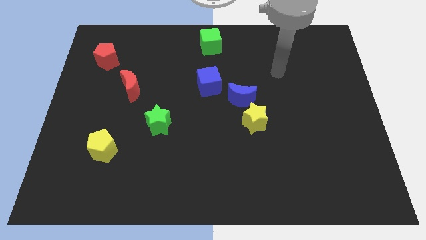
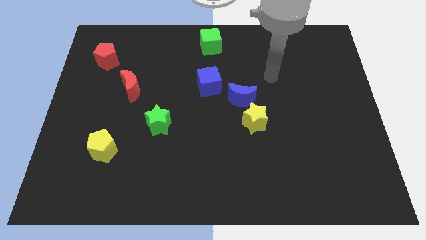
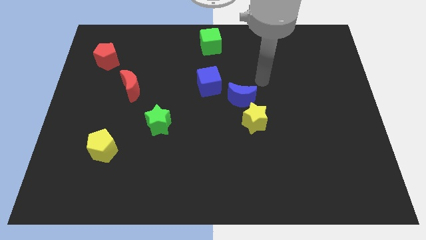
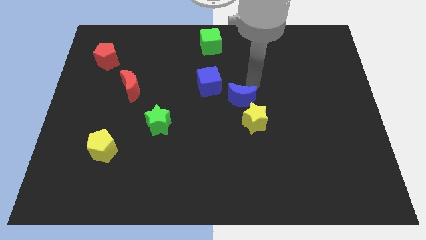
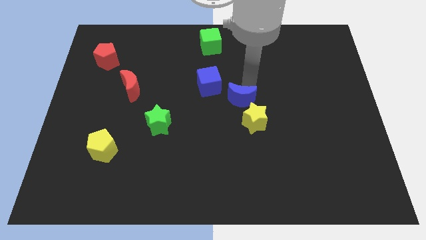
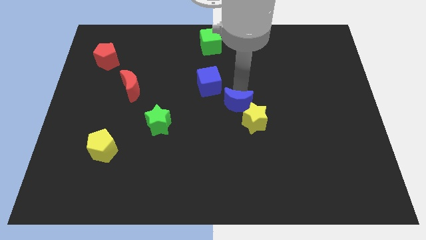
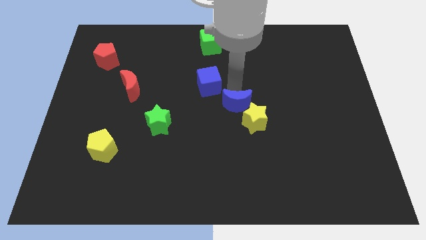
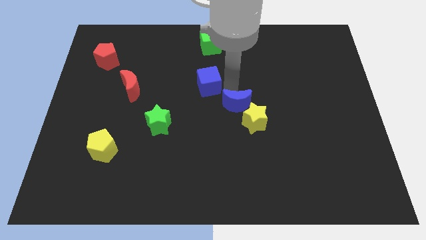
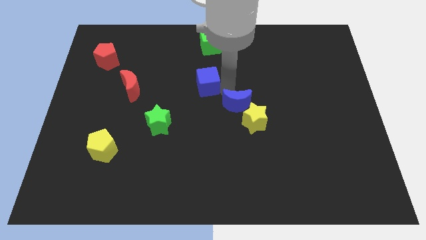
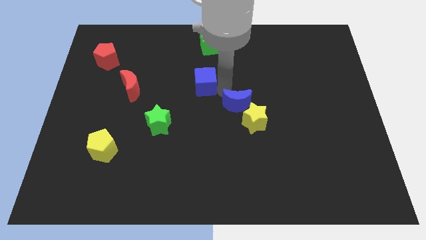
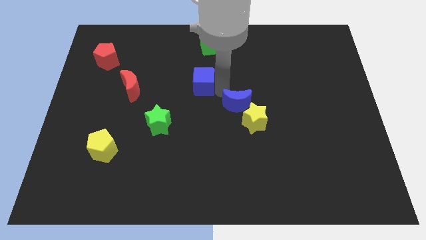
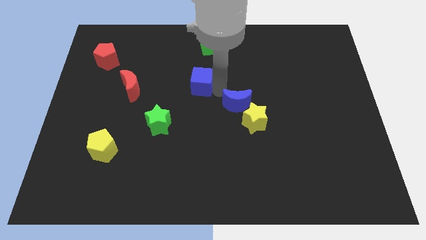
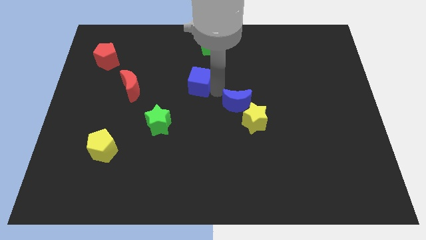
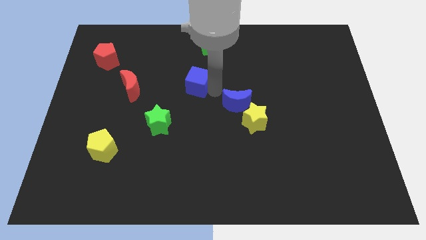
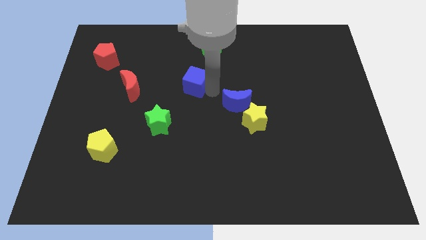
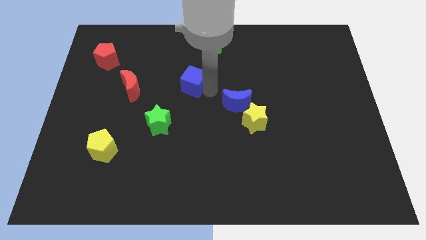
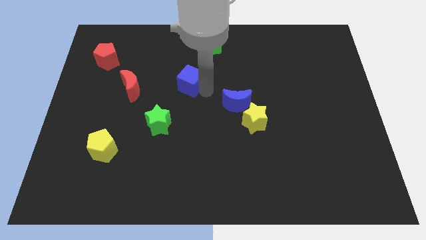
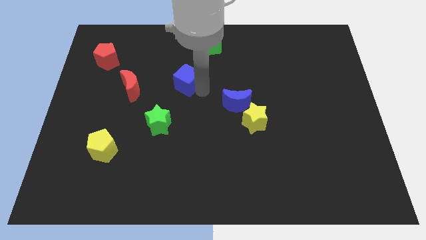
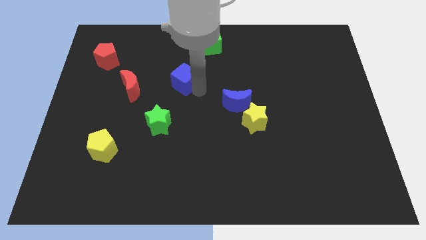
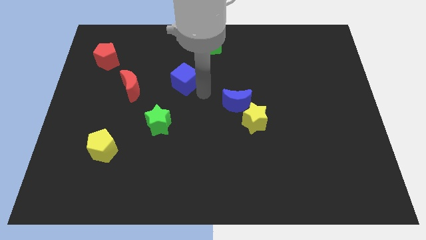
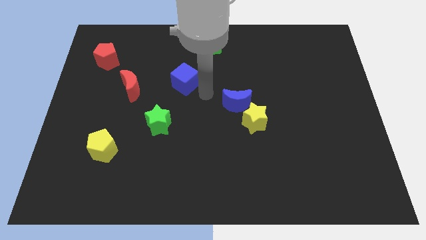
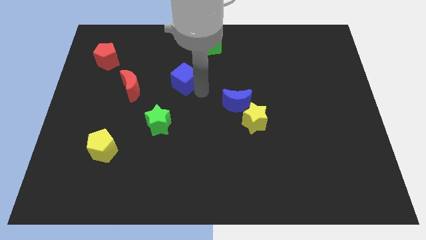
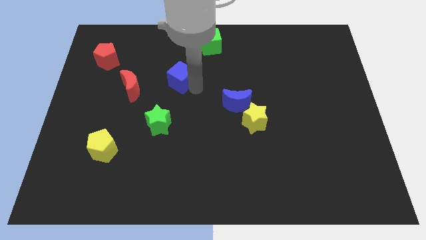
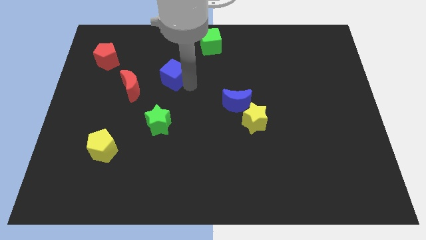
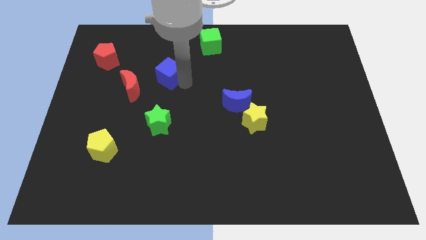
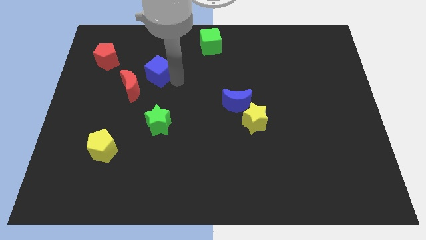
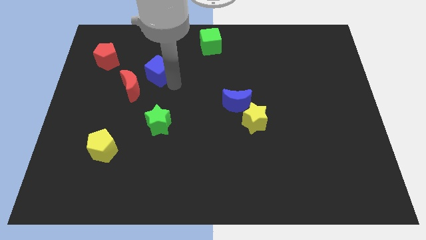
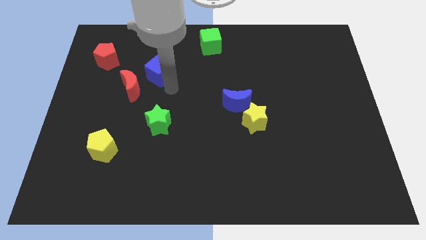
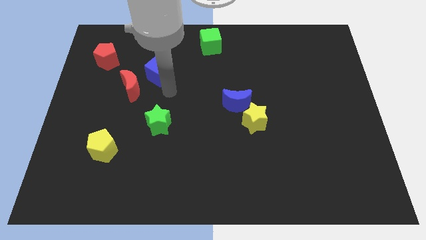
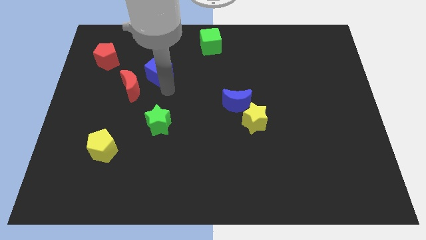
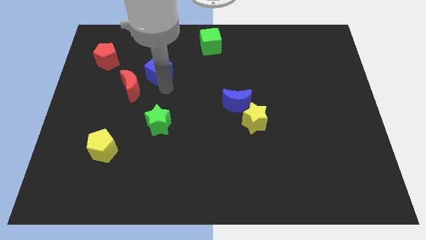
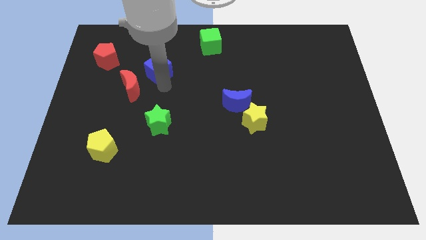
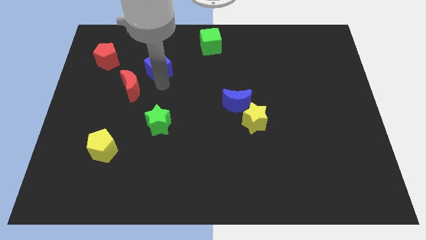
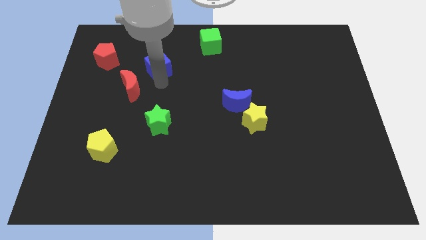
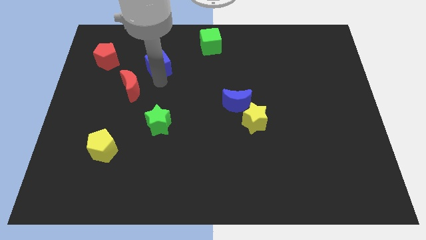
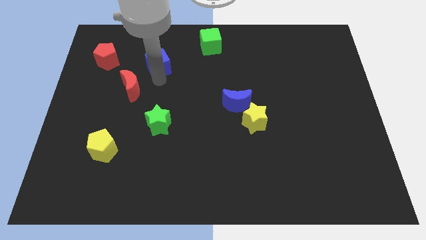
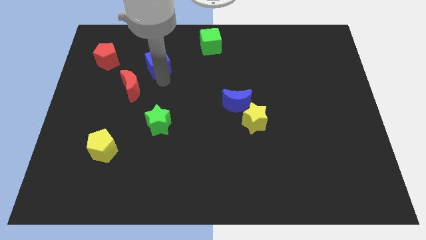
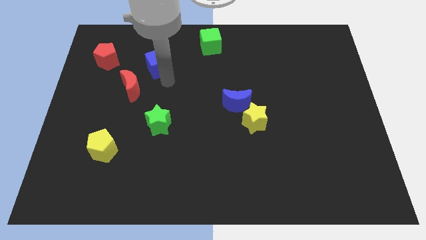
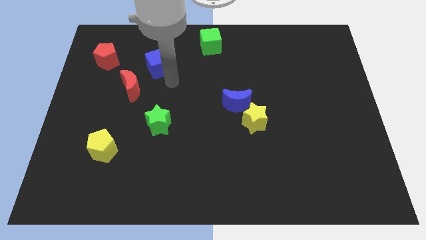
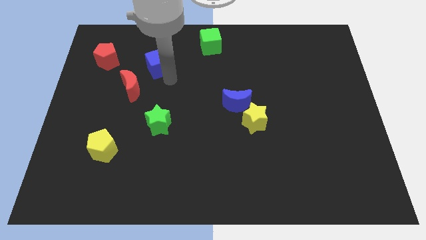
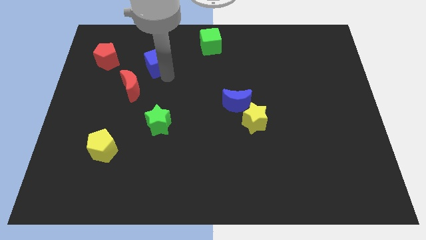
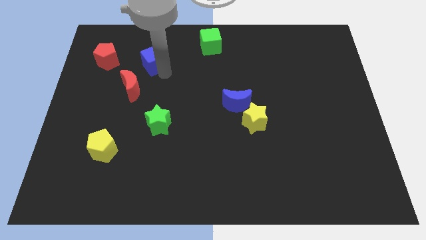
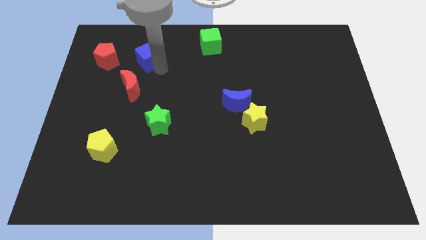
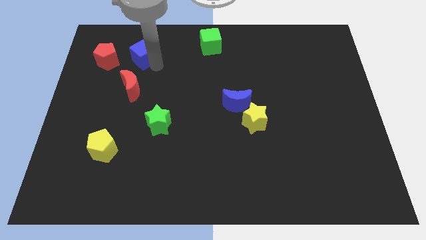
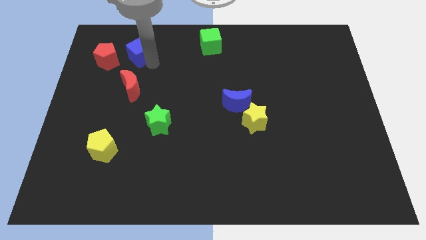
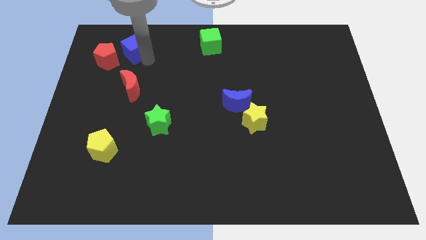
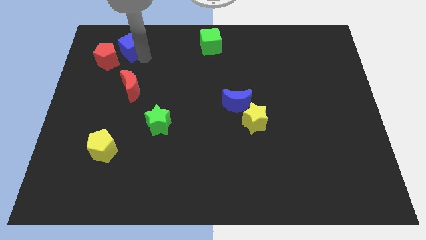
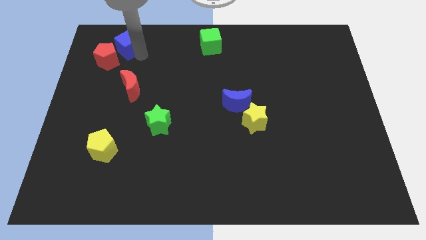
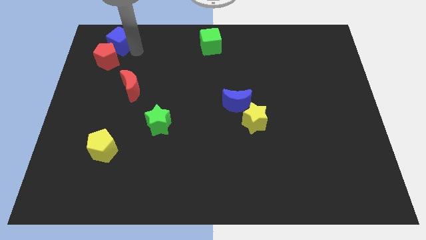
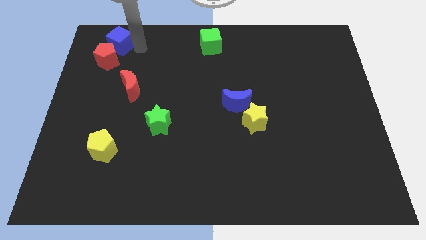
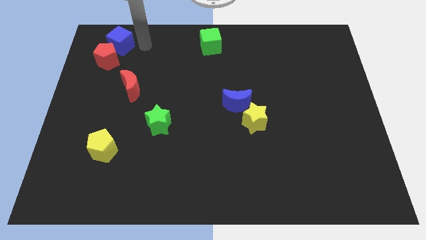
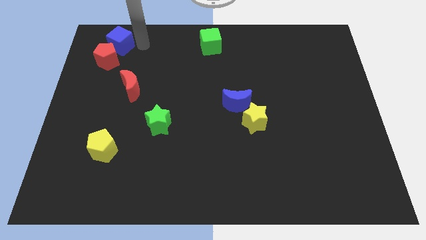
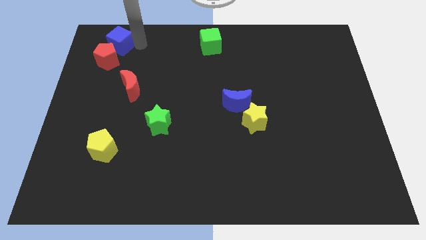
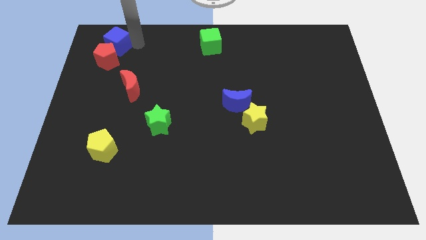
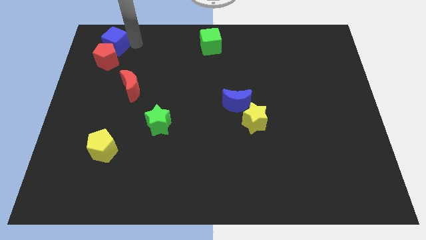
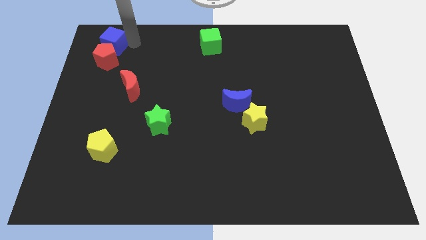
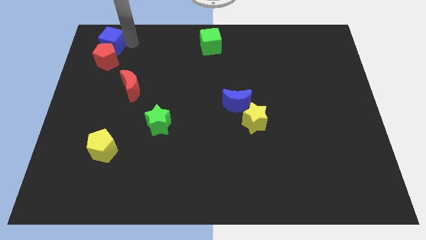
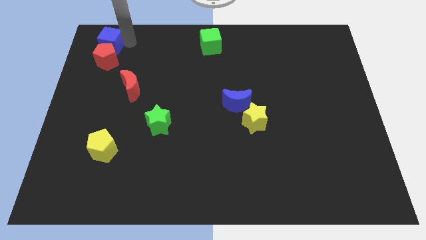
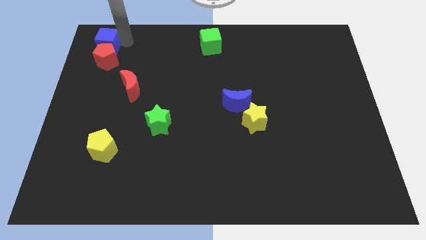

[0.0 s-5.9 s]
put the blue cube to the upper left corner

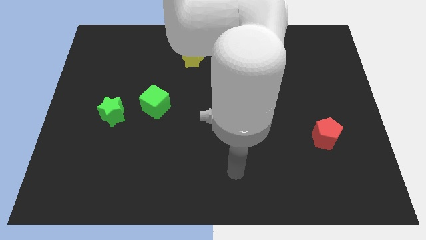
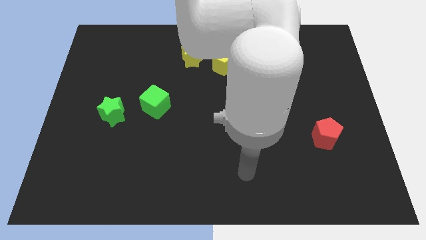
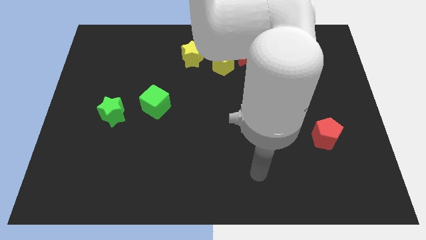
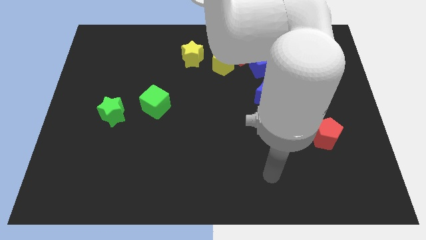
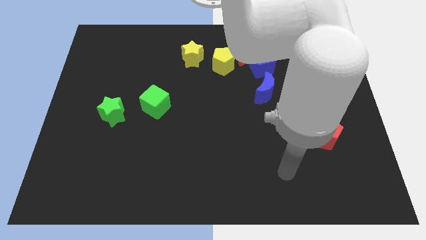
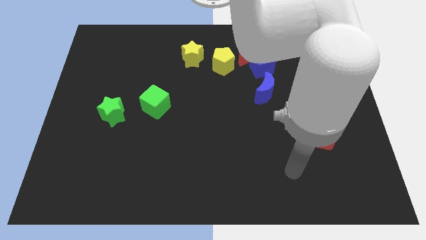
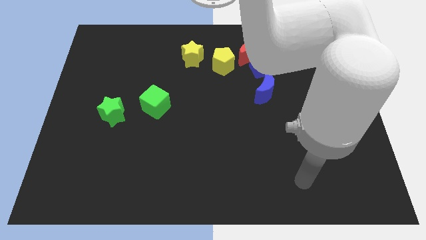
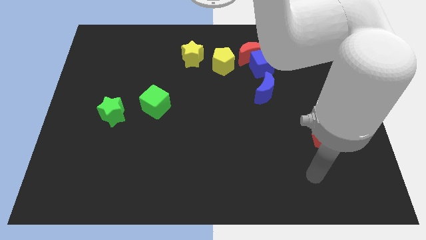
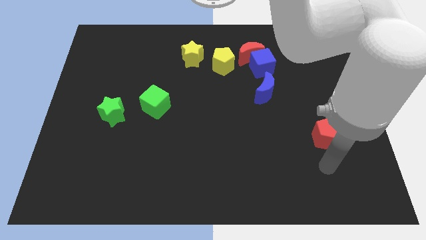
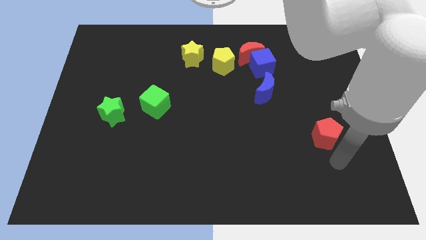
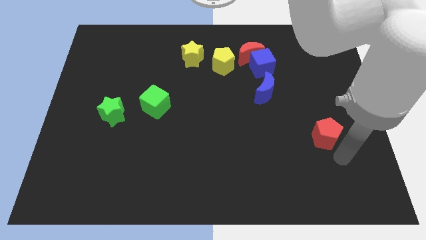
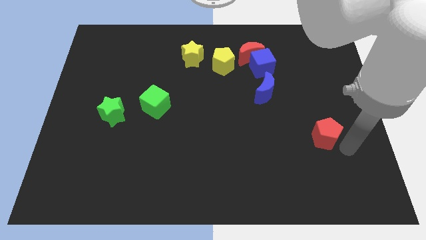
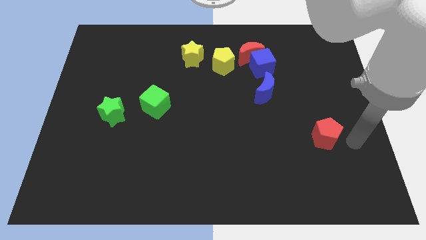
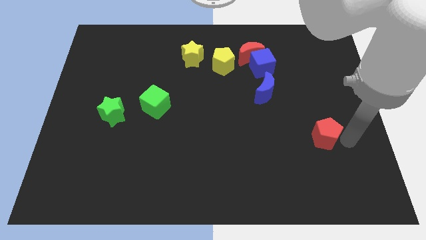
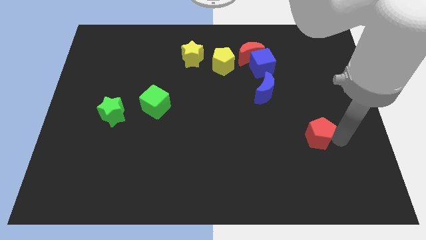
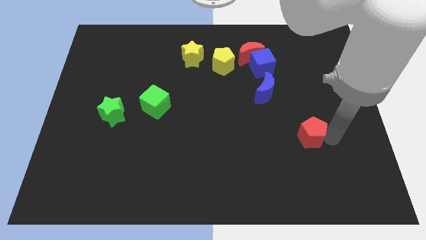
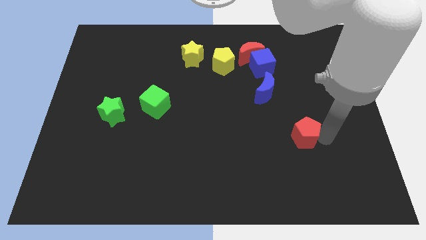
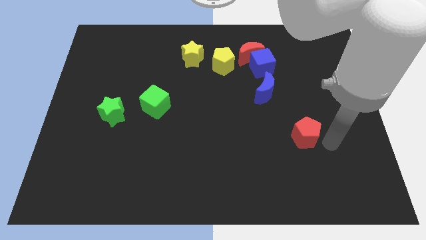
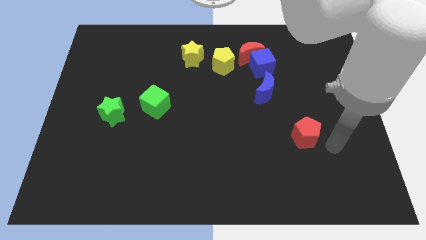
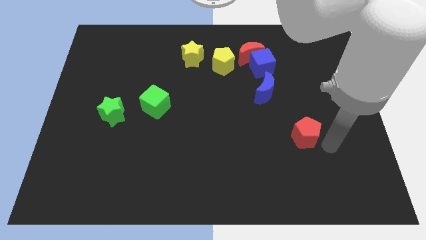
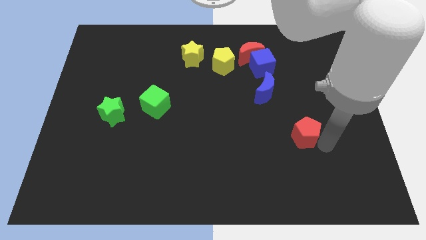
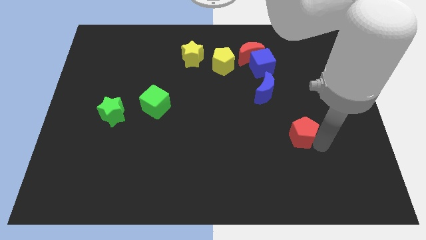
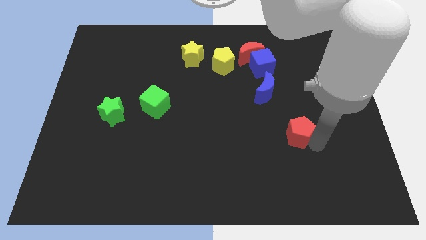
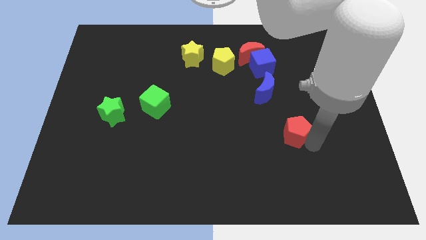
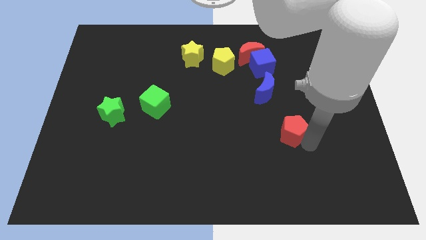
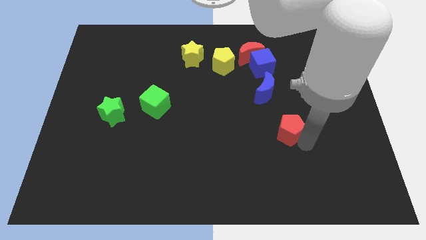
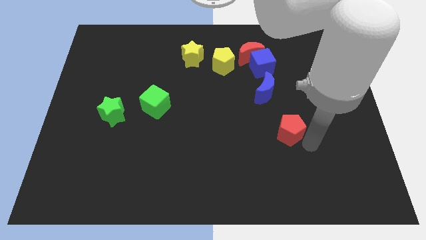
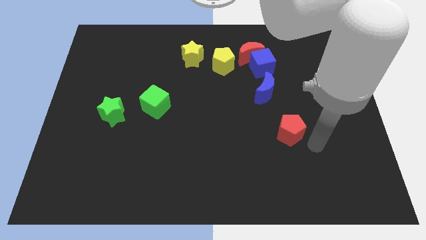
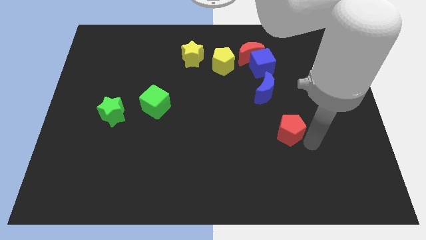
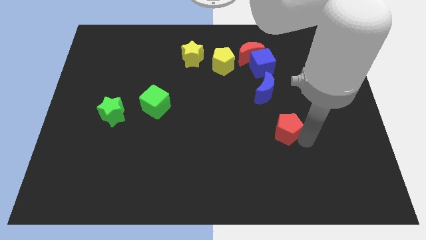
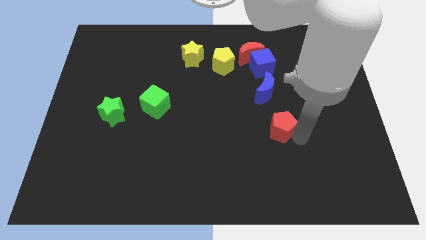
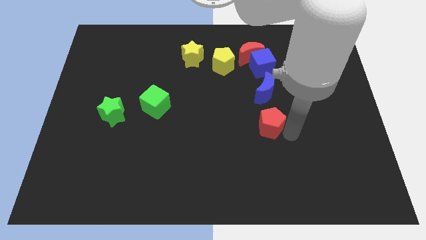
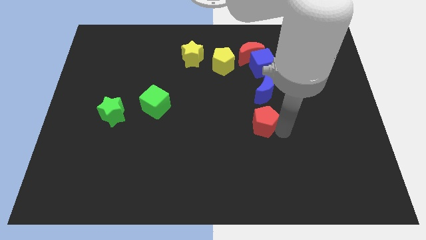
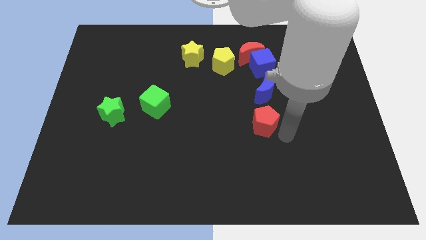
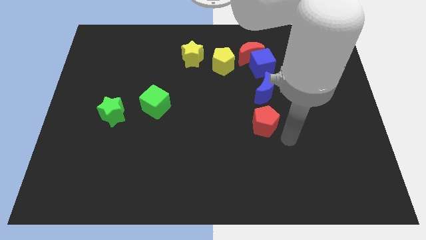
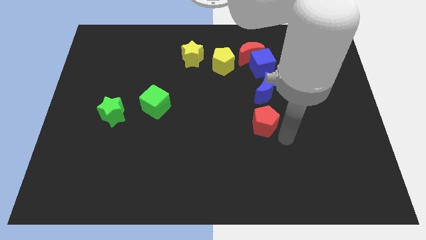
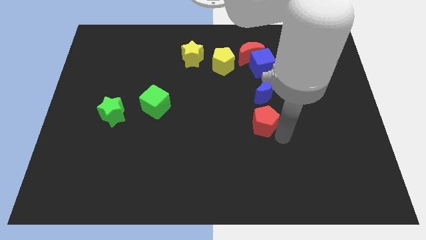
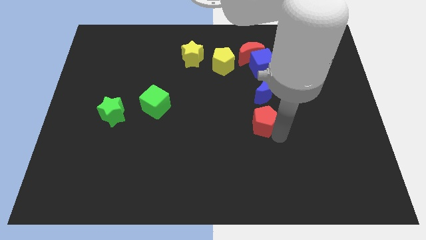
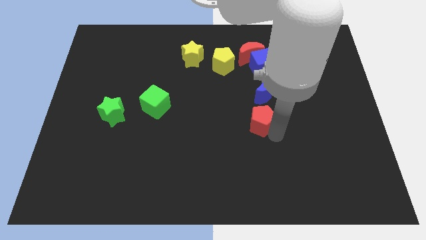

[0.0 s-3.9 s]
slide the red pentagon to the middle of the board
